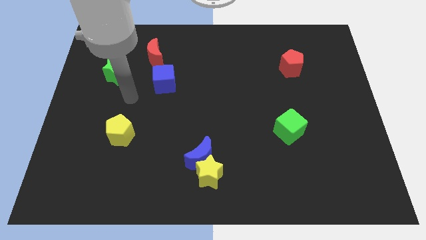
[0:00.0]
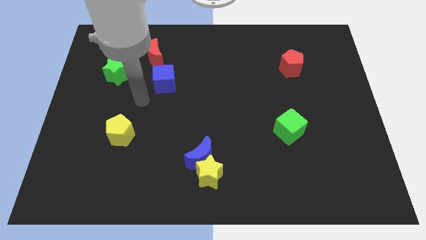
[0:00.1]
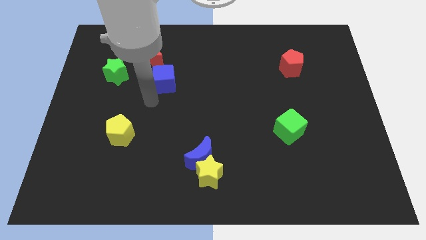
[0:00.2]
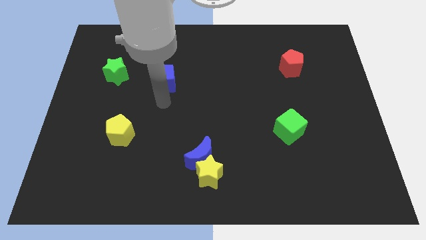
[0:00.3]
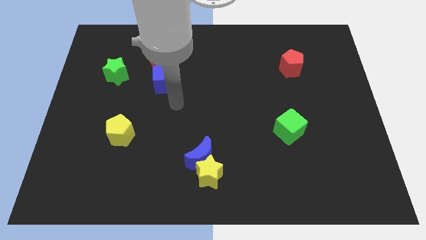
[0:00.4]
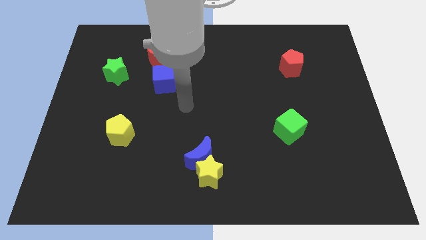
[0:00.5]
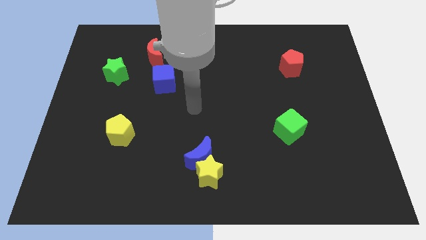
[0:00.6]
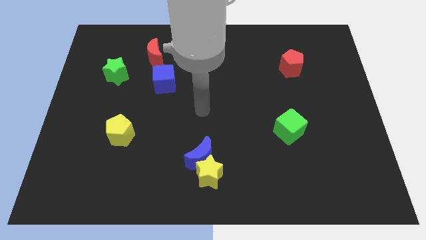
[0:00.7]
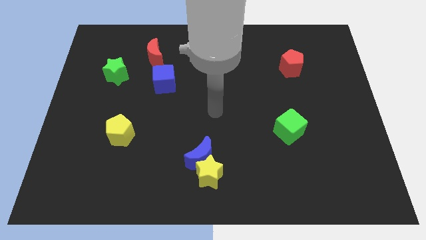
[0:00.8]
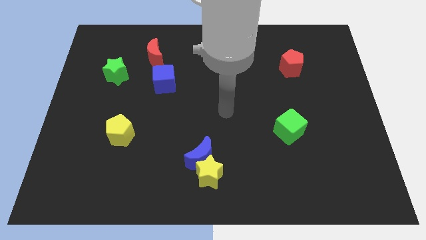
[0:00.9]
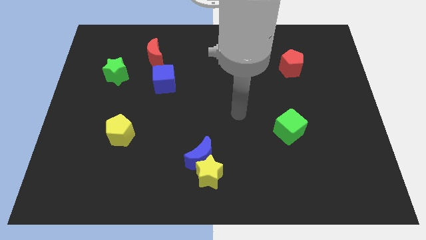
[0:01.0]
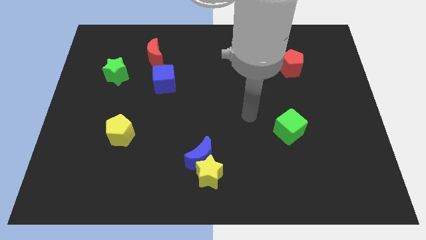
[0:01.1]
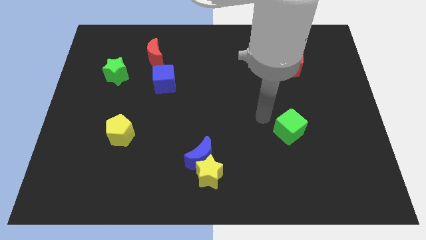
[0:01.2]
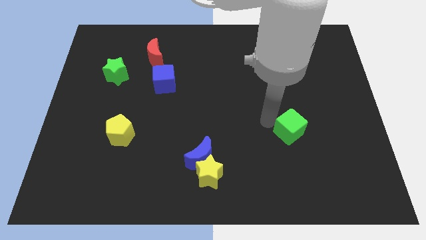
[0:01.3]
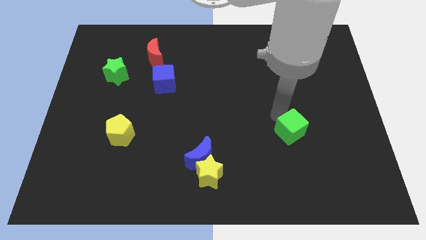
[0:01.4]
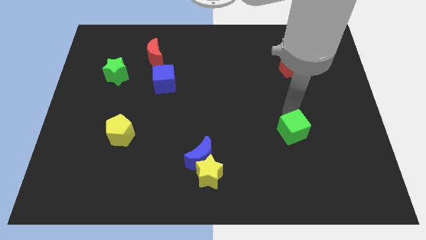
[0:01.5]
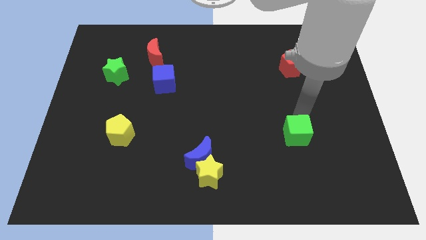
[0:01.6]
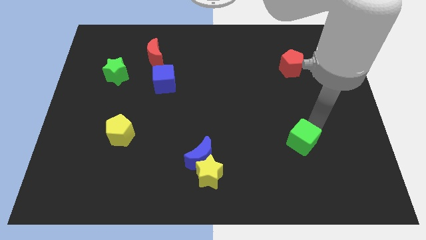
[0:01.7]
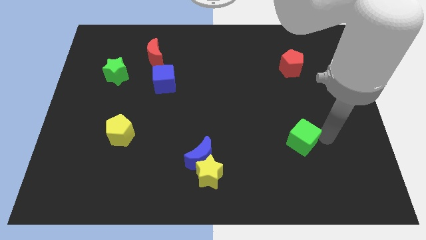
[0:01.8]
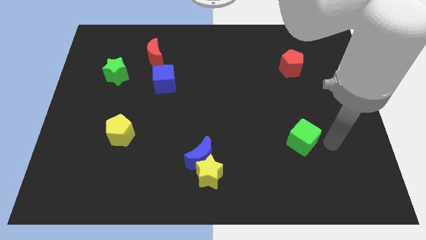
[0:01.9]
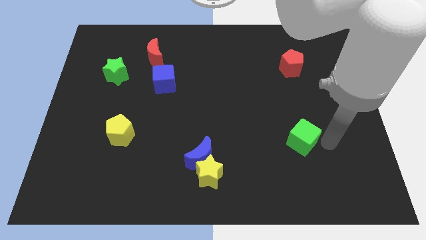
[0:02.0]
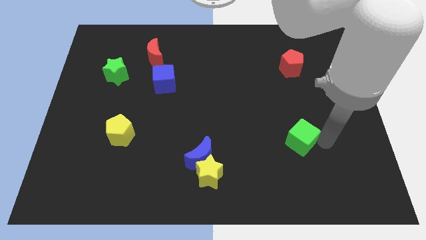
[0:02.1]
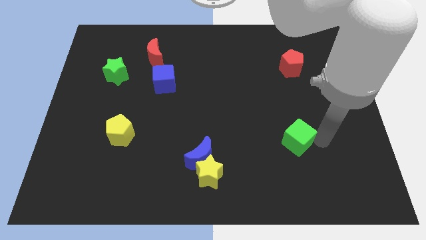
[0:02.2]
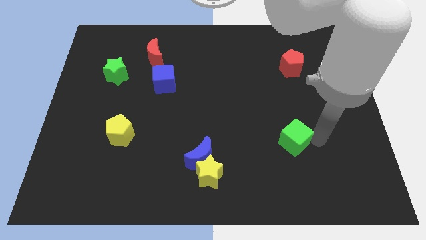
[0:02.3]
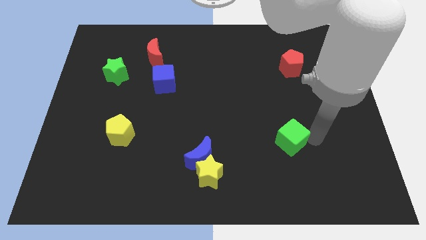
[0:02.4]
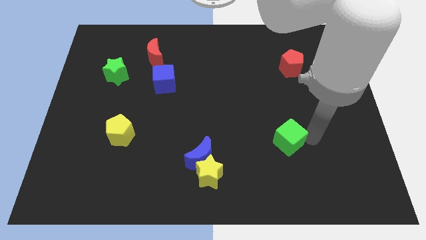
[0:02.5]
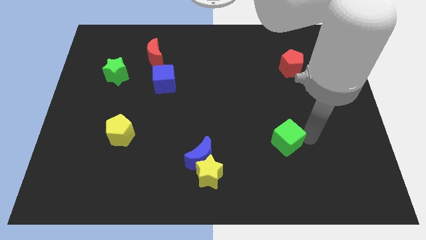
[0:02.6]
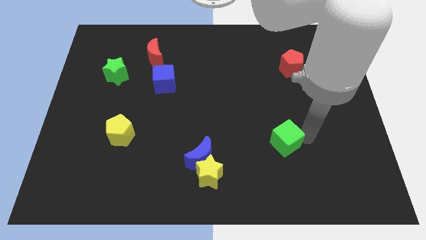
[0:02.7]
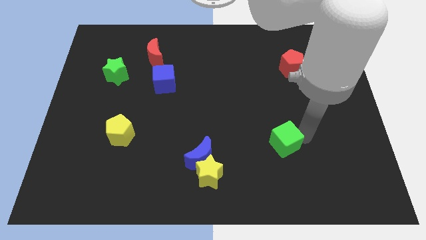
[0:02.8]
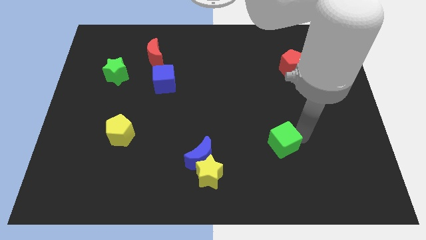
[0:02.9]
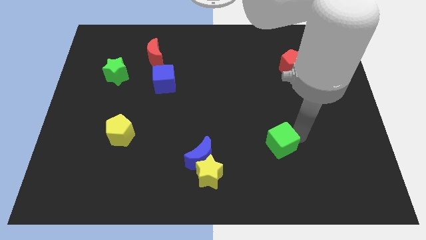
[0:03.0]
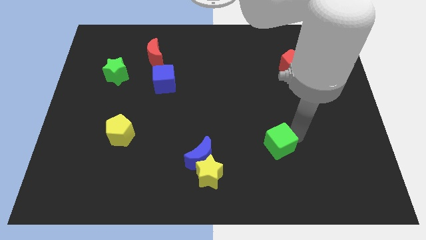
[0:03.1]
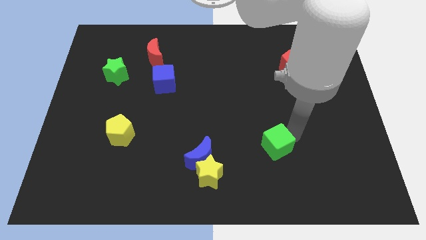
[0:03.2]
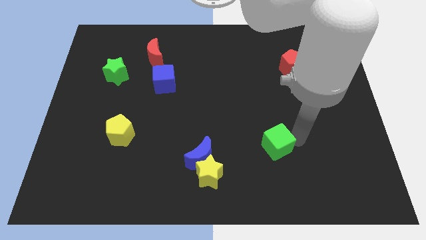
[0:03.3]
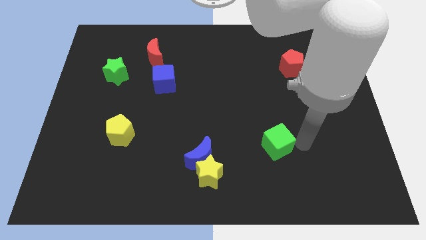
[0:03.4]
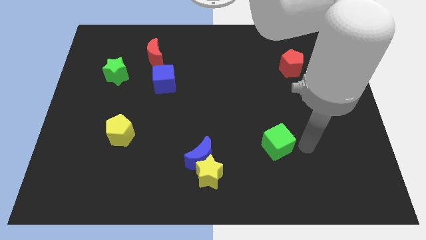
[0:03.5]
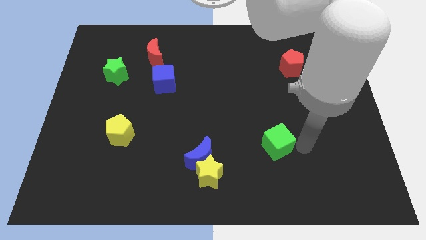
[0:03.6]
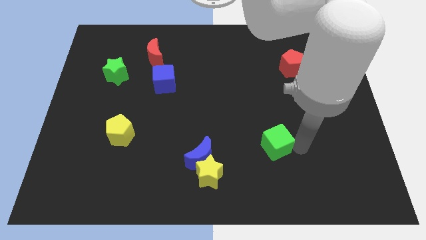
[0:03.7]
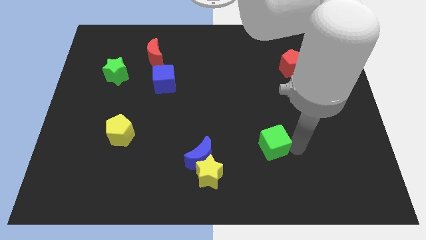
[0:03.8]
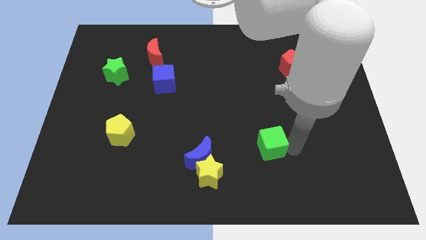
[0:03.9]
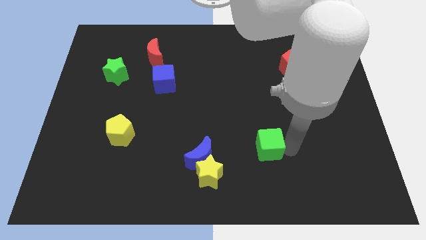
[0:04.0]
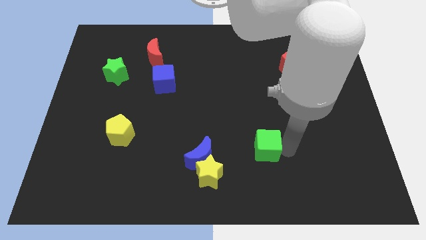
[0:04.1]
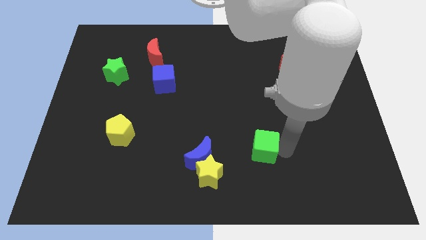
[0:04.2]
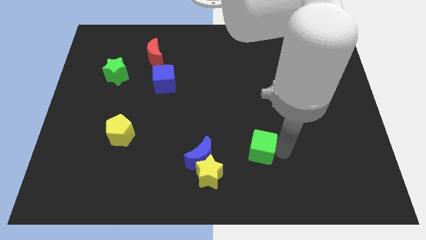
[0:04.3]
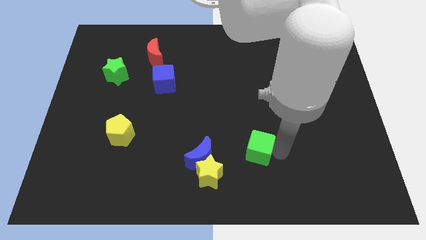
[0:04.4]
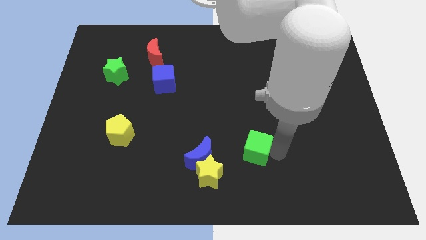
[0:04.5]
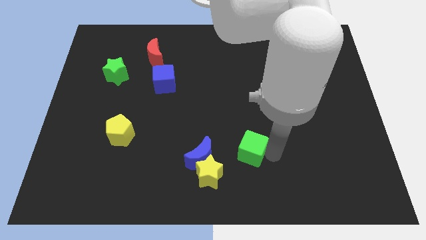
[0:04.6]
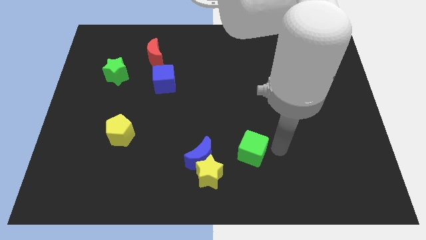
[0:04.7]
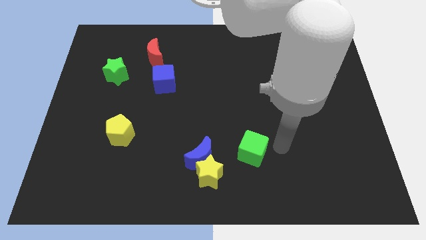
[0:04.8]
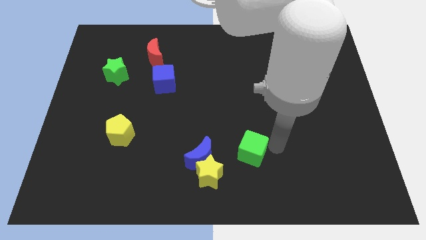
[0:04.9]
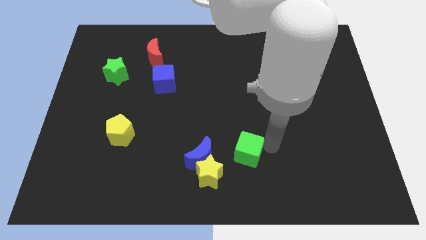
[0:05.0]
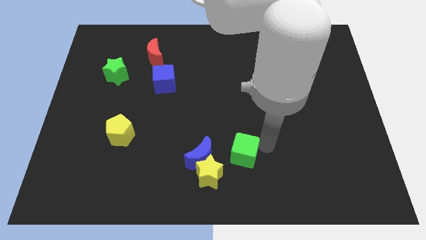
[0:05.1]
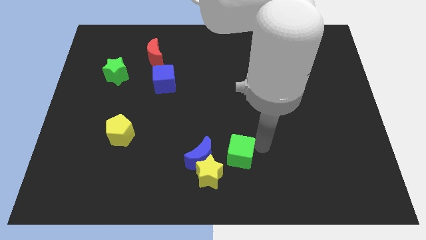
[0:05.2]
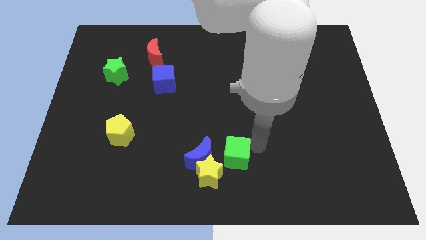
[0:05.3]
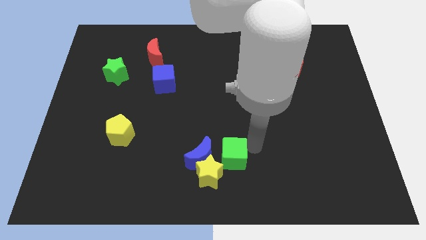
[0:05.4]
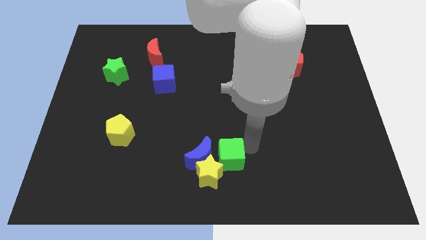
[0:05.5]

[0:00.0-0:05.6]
put the green cube to the blue moon

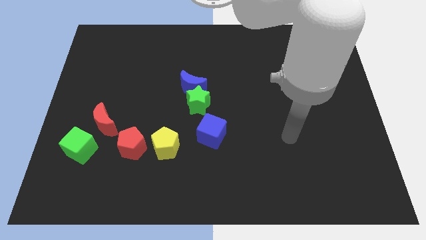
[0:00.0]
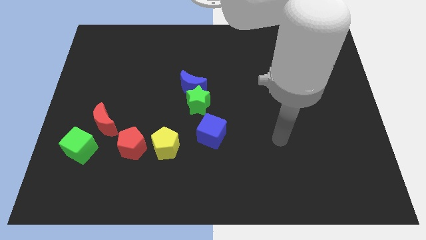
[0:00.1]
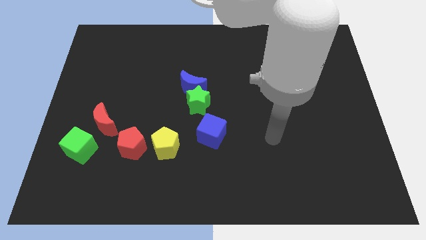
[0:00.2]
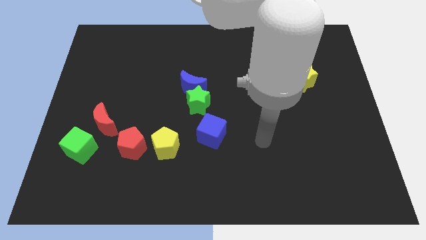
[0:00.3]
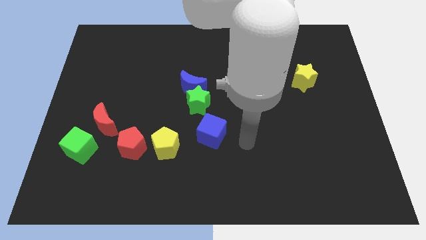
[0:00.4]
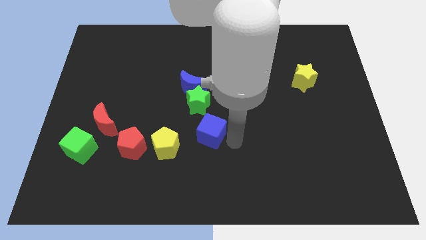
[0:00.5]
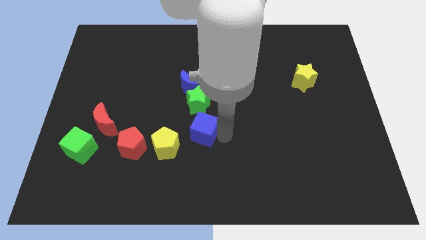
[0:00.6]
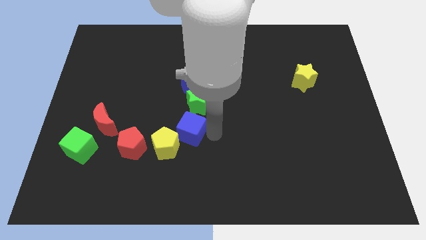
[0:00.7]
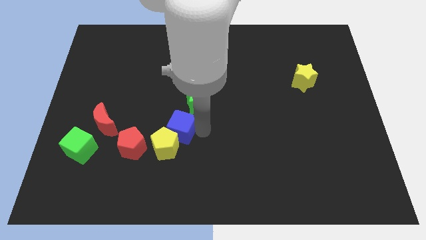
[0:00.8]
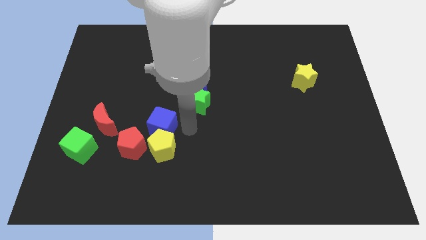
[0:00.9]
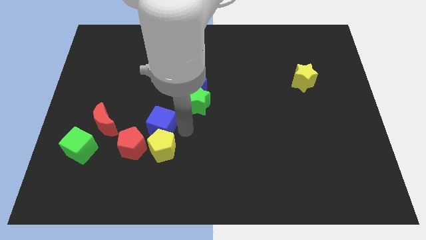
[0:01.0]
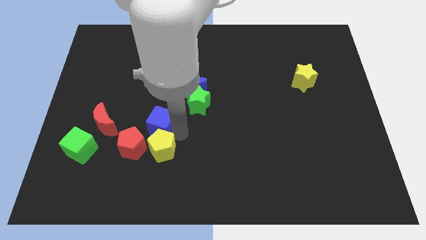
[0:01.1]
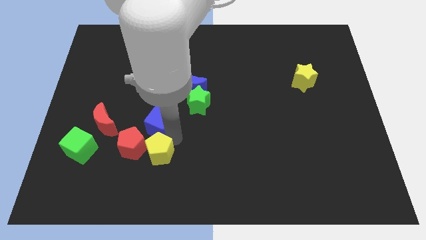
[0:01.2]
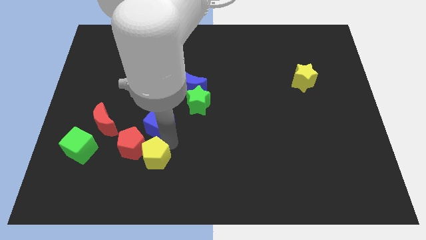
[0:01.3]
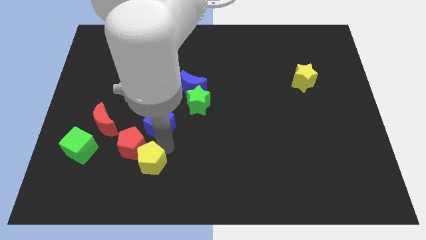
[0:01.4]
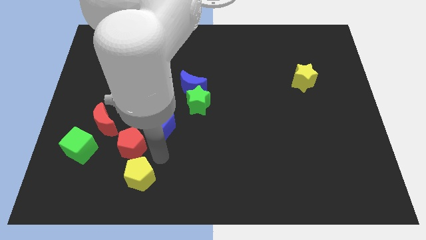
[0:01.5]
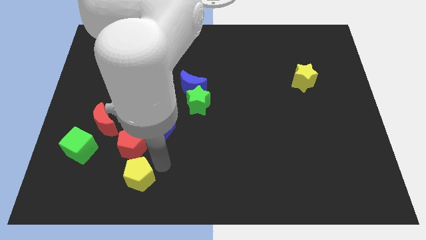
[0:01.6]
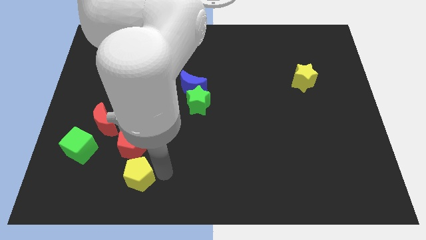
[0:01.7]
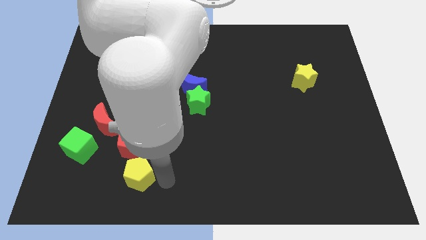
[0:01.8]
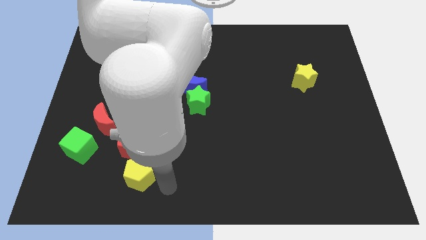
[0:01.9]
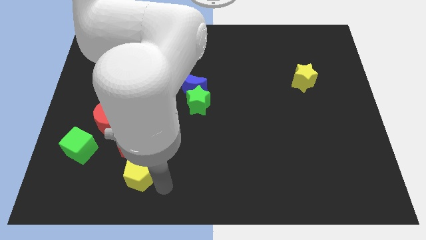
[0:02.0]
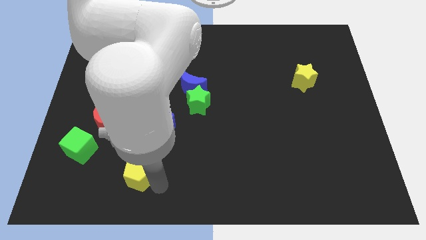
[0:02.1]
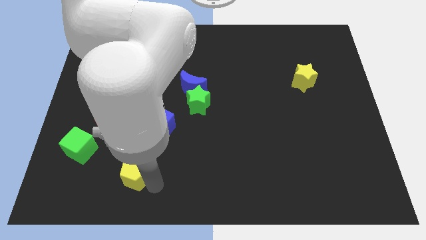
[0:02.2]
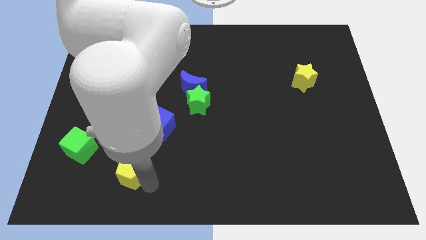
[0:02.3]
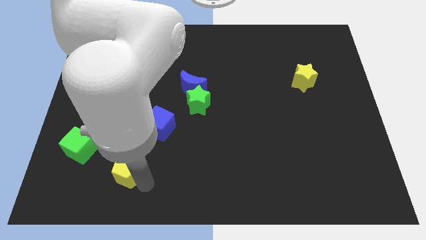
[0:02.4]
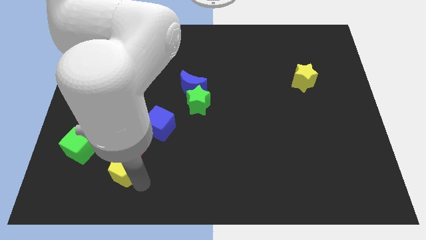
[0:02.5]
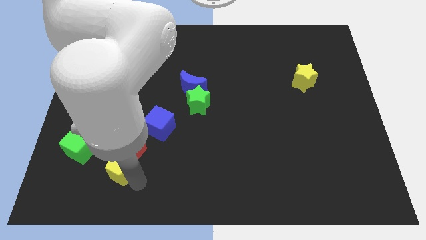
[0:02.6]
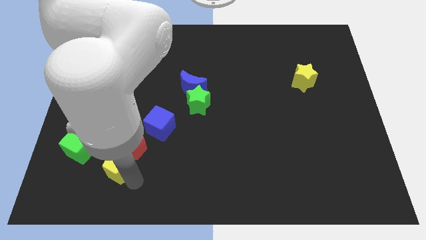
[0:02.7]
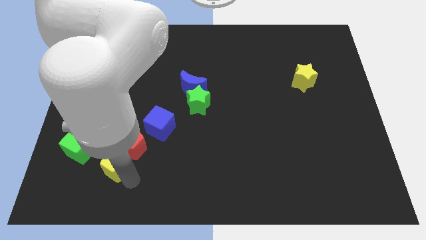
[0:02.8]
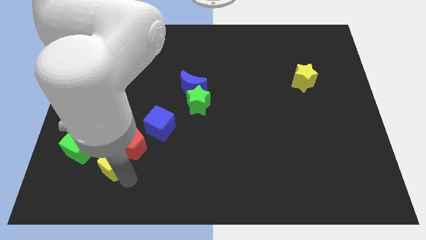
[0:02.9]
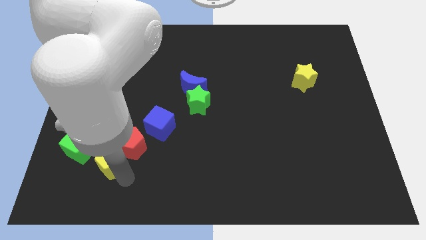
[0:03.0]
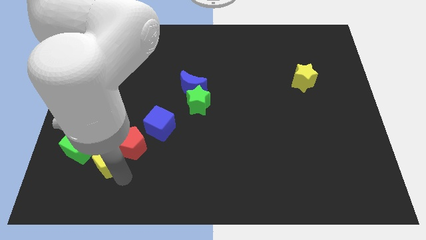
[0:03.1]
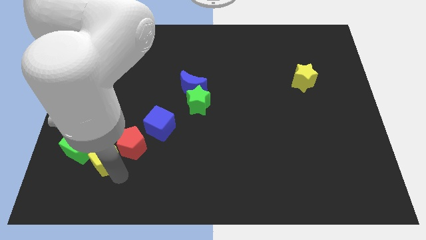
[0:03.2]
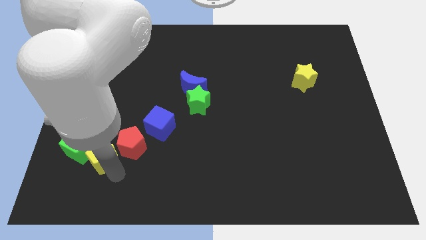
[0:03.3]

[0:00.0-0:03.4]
slide the yellow pentagon next to the green cube
